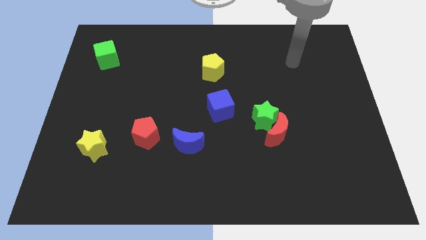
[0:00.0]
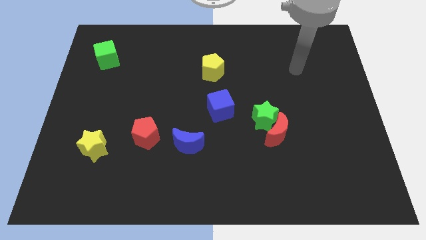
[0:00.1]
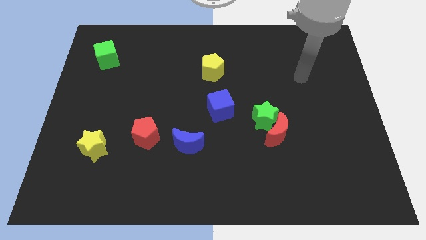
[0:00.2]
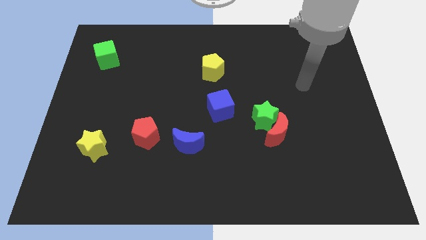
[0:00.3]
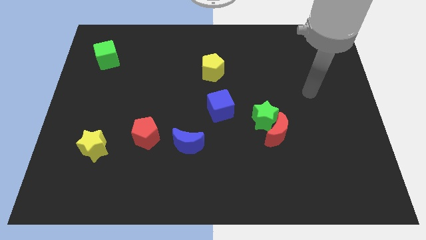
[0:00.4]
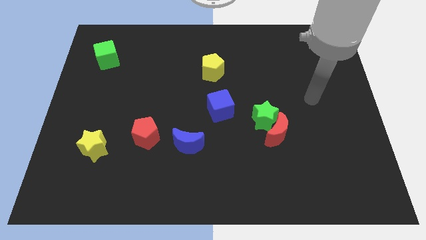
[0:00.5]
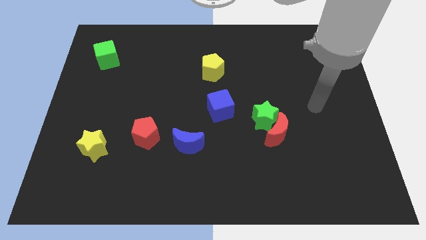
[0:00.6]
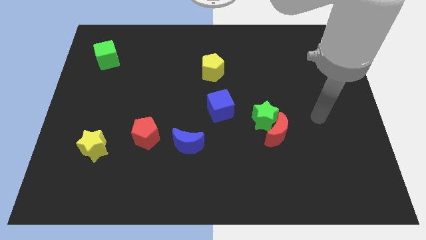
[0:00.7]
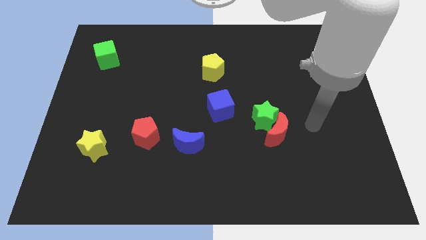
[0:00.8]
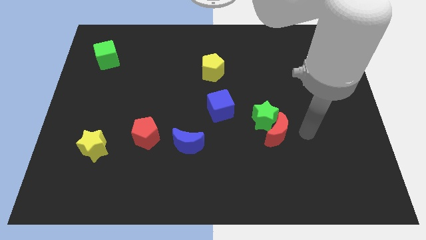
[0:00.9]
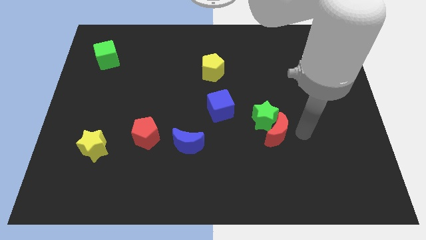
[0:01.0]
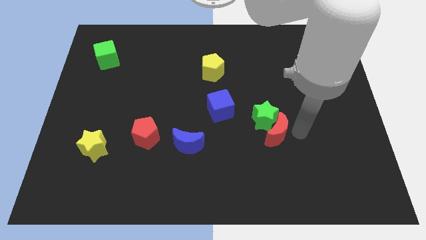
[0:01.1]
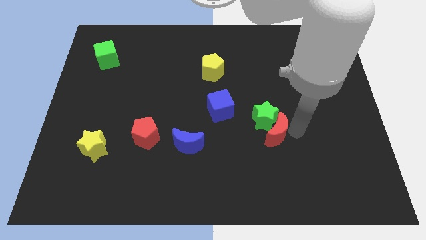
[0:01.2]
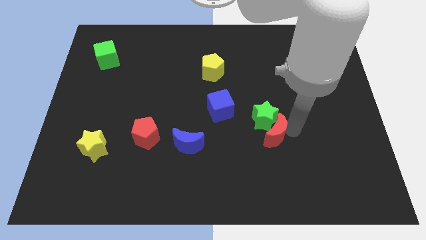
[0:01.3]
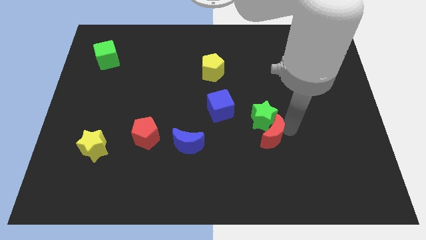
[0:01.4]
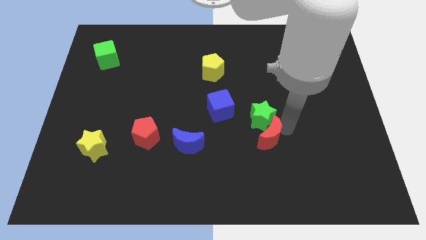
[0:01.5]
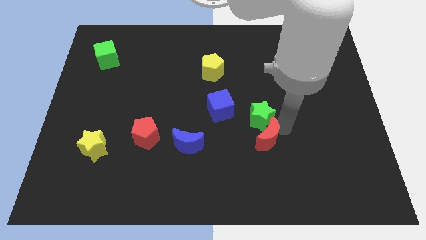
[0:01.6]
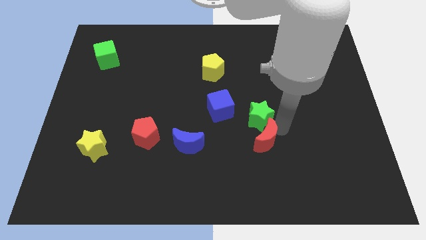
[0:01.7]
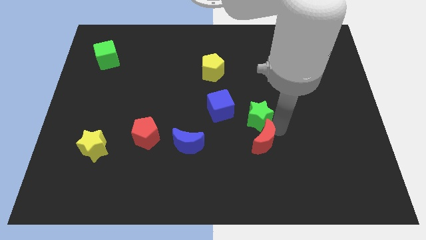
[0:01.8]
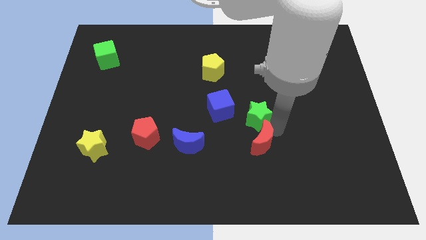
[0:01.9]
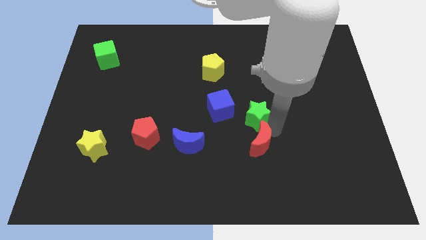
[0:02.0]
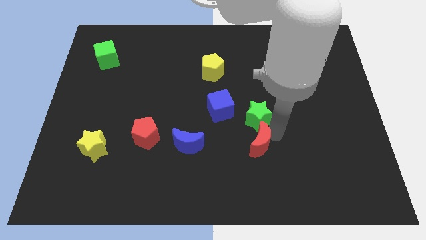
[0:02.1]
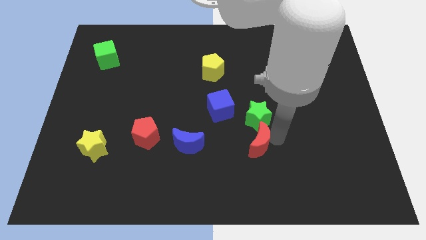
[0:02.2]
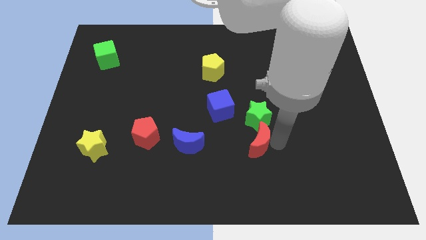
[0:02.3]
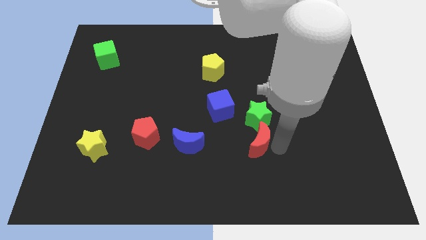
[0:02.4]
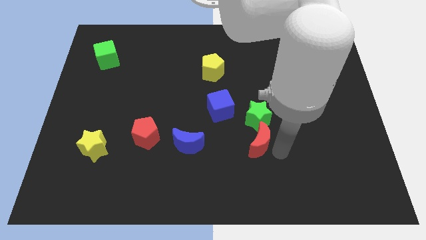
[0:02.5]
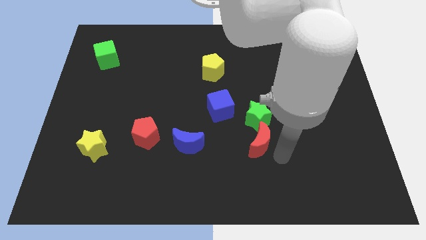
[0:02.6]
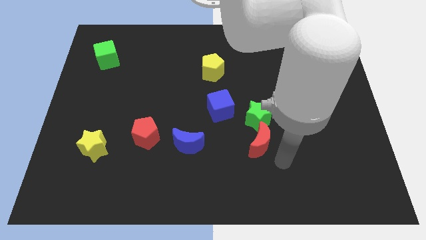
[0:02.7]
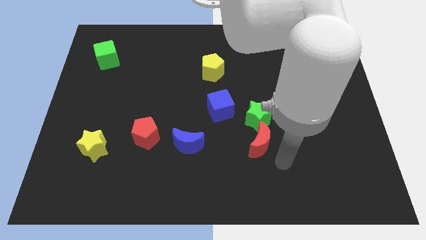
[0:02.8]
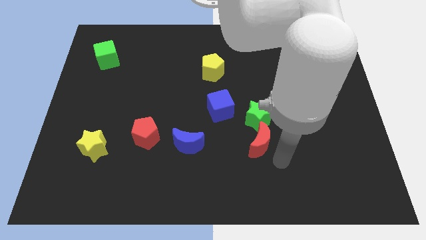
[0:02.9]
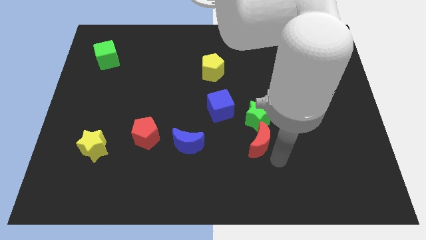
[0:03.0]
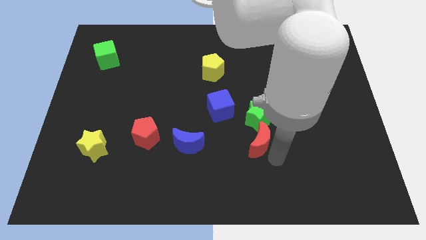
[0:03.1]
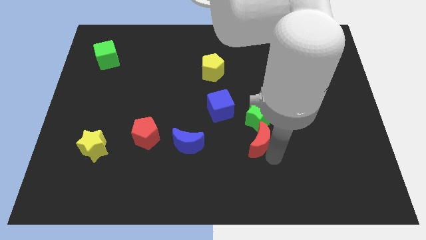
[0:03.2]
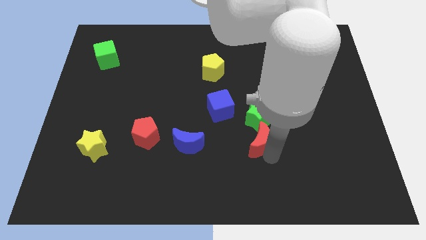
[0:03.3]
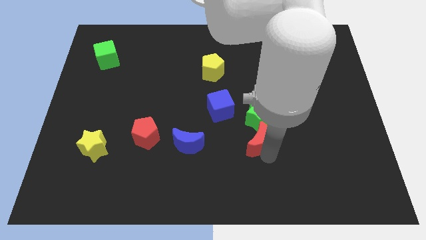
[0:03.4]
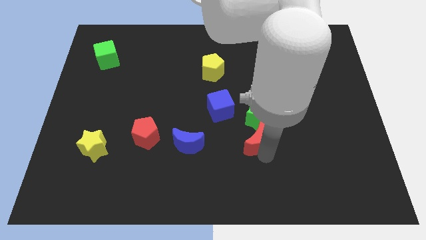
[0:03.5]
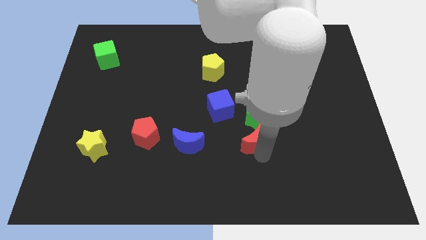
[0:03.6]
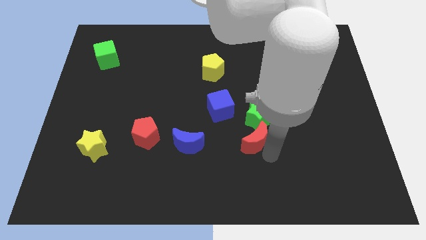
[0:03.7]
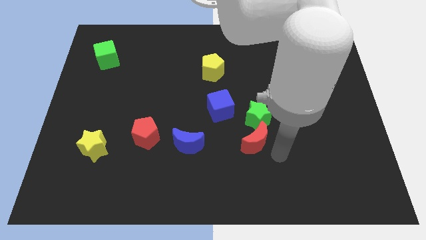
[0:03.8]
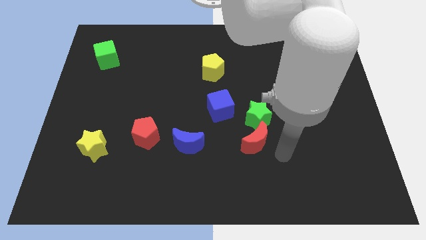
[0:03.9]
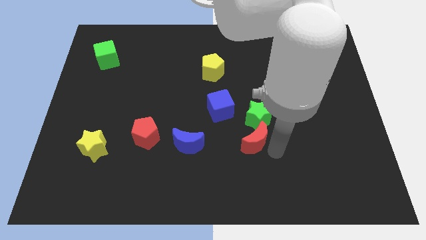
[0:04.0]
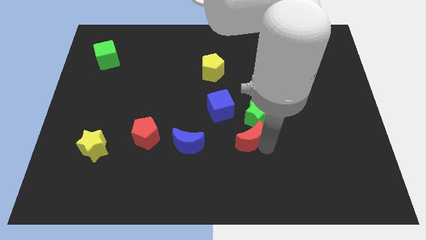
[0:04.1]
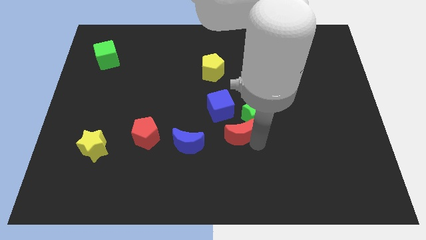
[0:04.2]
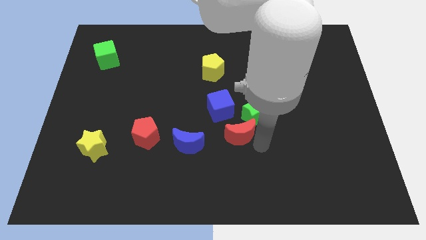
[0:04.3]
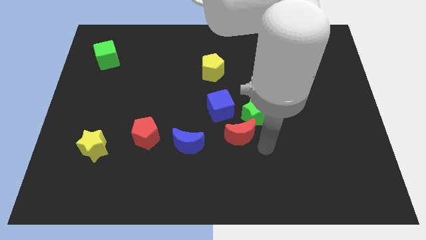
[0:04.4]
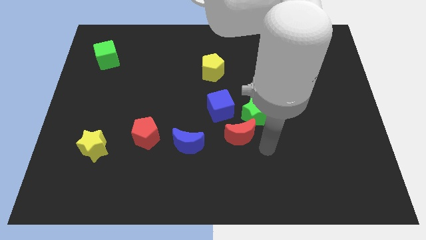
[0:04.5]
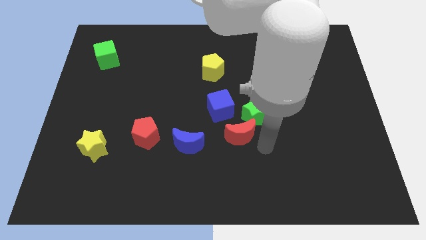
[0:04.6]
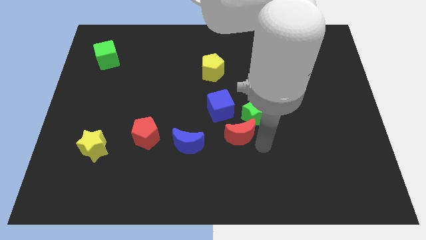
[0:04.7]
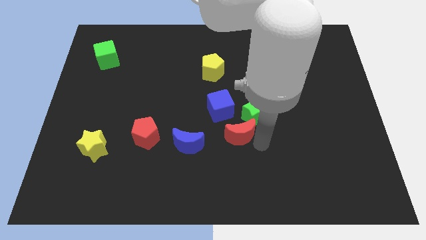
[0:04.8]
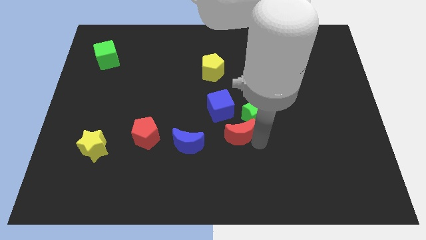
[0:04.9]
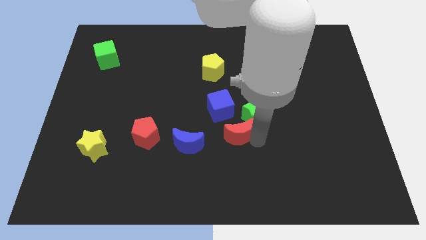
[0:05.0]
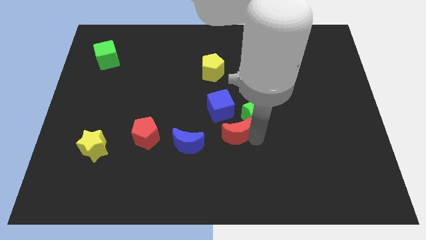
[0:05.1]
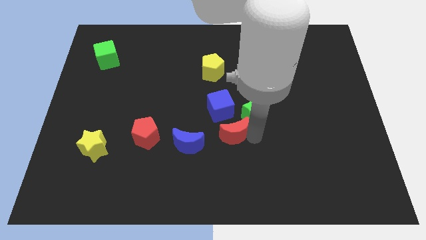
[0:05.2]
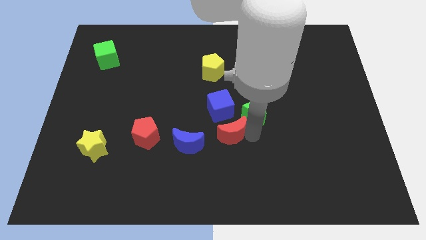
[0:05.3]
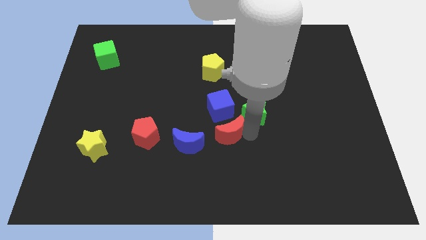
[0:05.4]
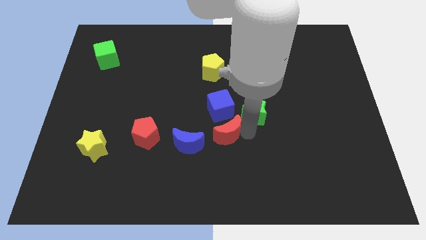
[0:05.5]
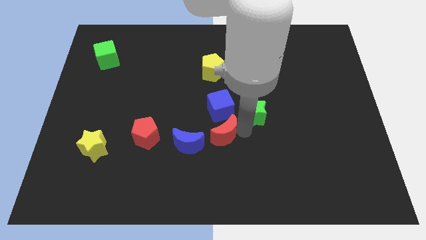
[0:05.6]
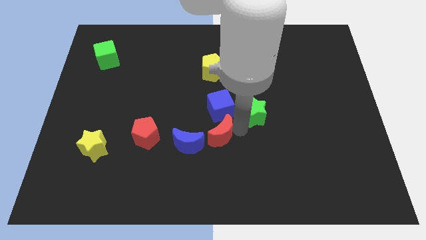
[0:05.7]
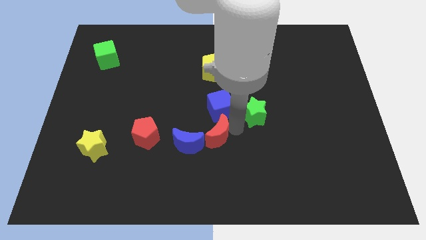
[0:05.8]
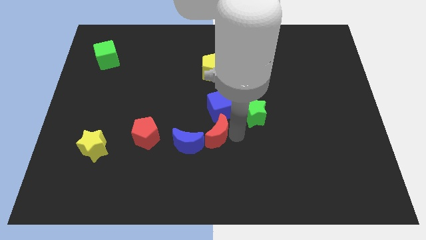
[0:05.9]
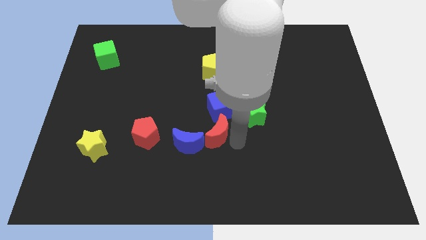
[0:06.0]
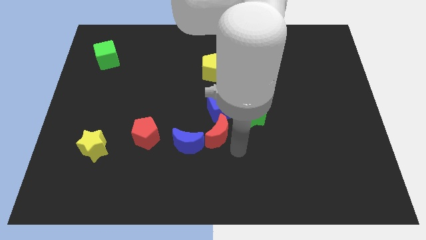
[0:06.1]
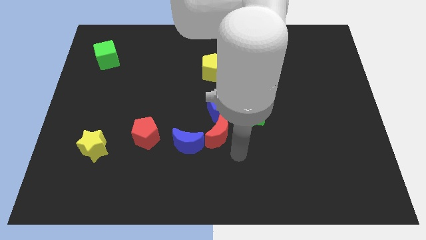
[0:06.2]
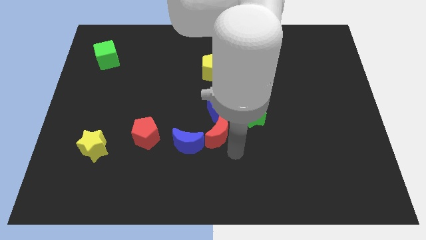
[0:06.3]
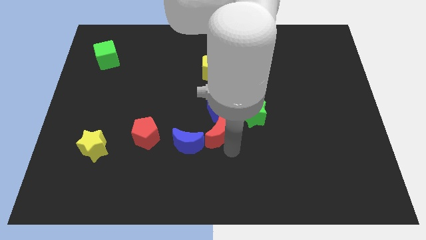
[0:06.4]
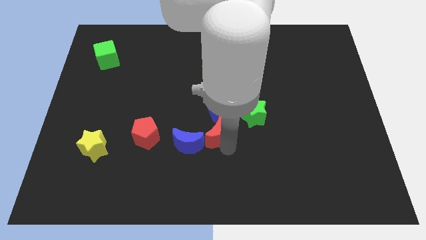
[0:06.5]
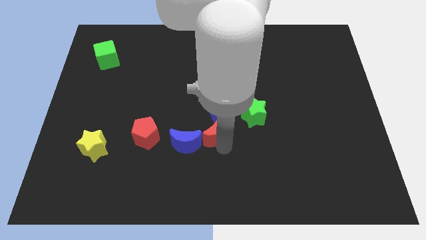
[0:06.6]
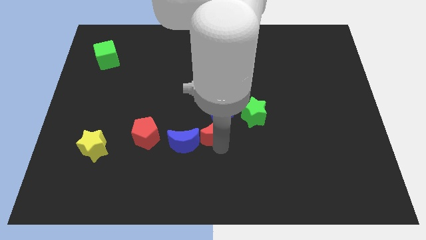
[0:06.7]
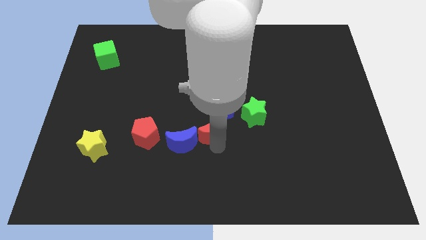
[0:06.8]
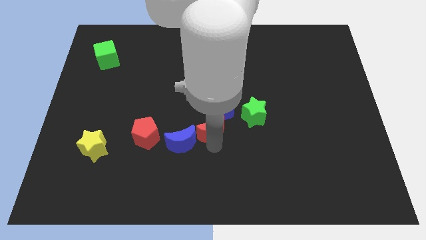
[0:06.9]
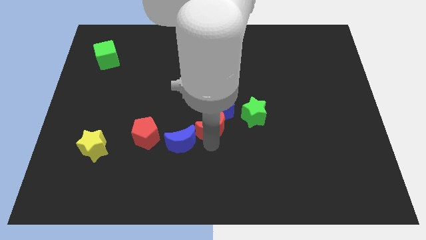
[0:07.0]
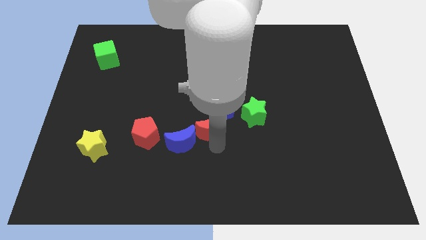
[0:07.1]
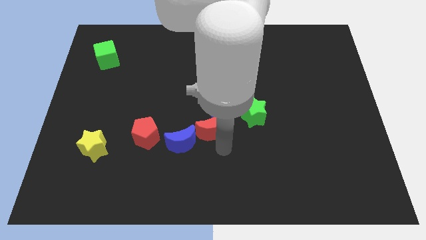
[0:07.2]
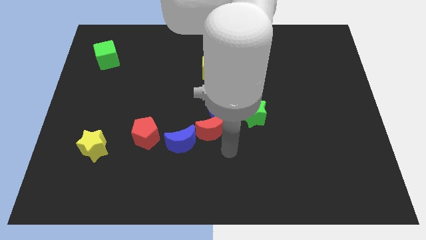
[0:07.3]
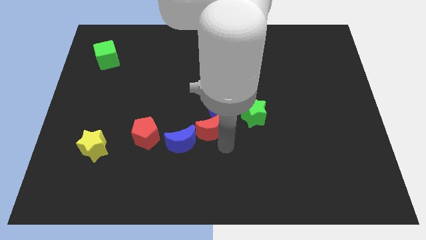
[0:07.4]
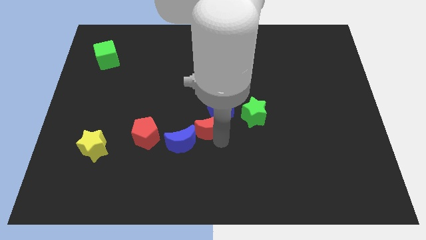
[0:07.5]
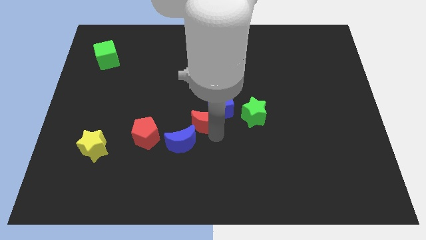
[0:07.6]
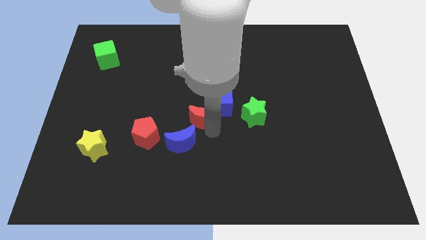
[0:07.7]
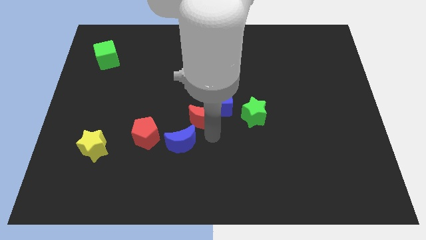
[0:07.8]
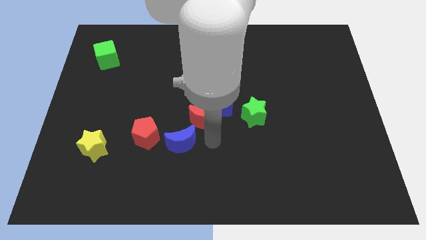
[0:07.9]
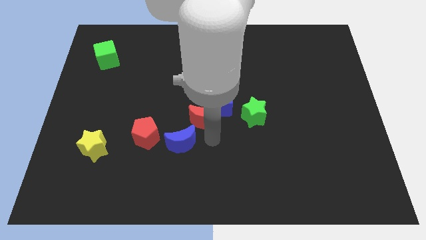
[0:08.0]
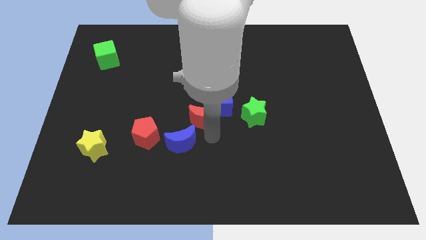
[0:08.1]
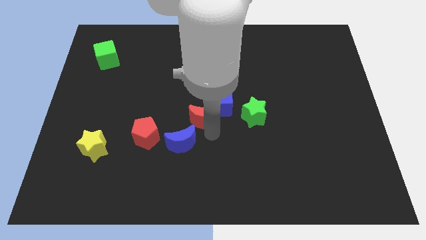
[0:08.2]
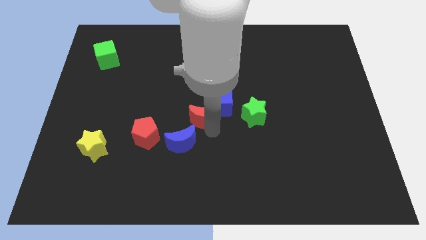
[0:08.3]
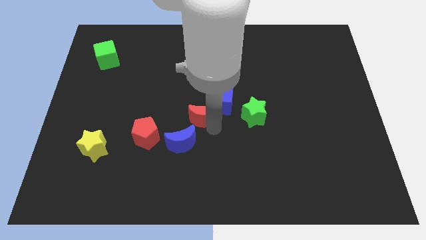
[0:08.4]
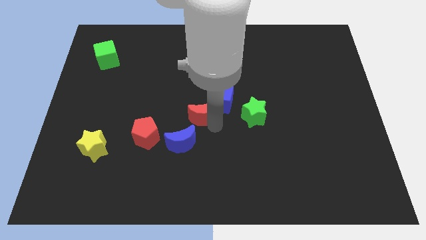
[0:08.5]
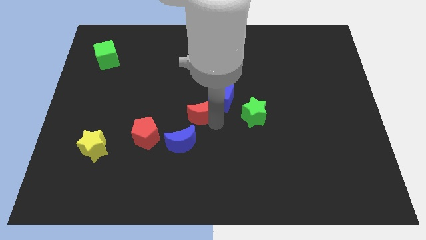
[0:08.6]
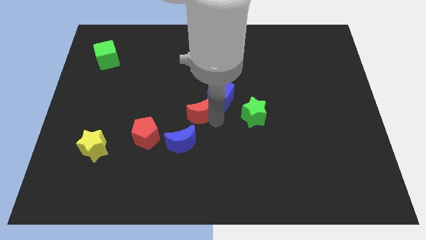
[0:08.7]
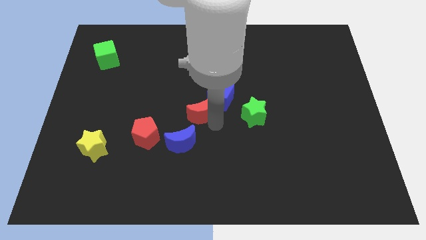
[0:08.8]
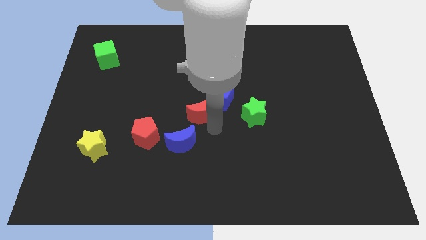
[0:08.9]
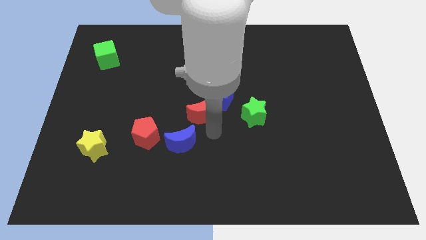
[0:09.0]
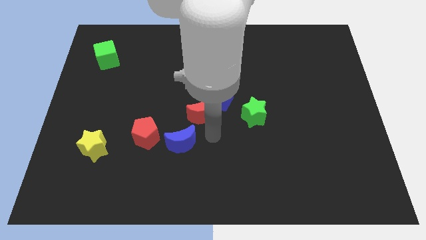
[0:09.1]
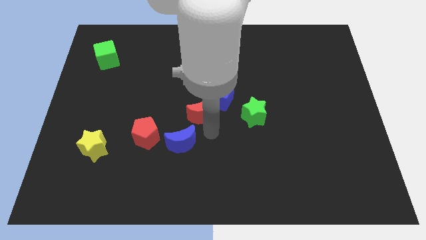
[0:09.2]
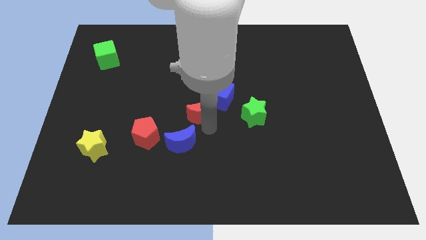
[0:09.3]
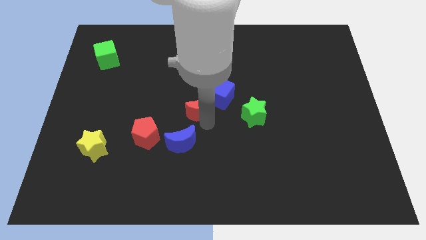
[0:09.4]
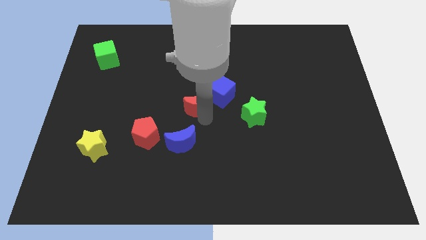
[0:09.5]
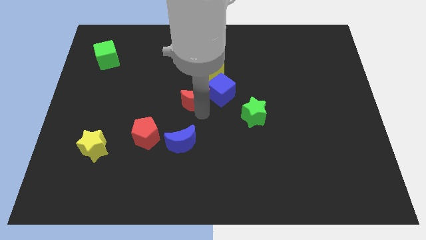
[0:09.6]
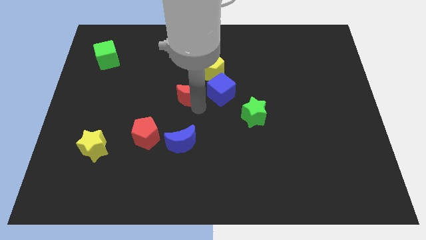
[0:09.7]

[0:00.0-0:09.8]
move the red moon diagonally down and to the left of the yellow pentagon
